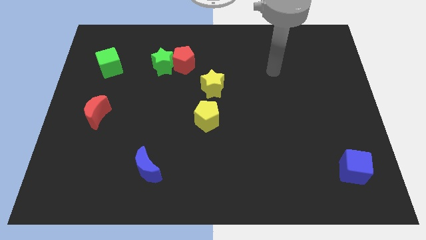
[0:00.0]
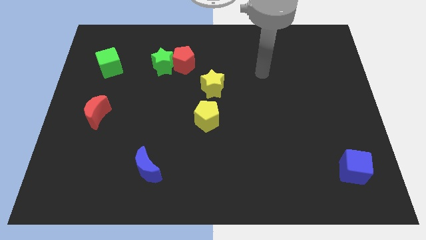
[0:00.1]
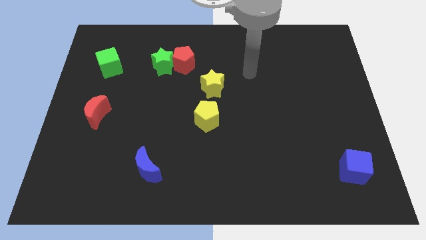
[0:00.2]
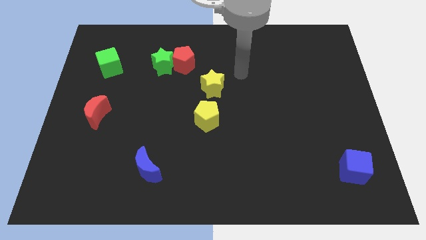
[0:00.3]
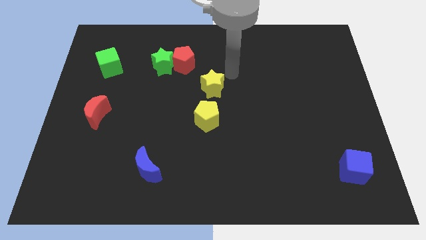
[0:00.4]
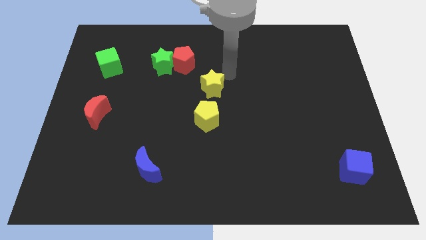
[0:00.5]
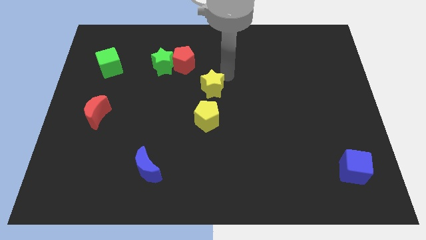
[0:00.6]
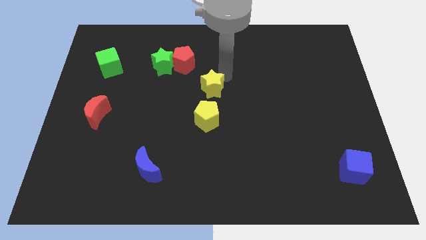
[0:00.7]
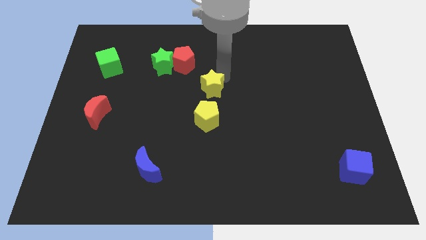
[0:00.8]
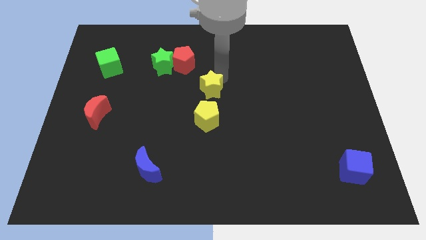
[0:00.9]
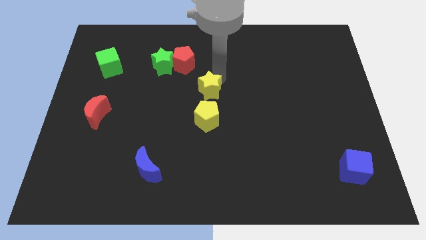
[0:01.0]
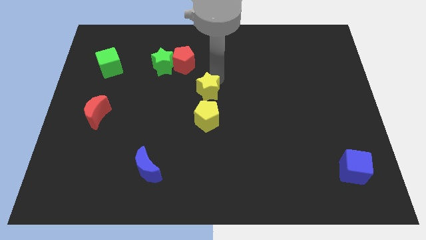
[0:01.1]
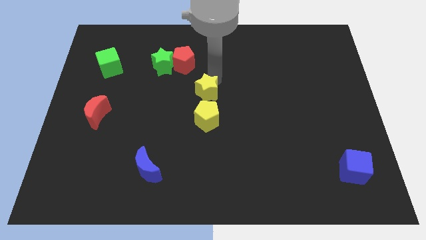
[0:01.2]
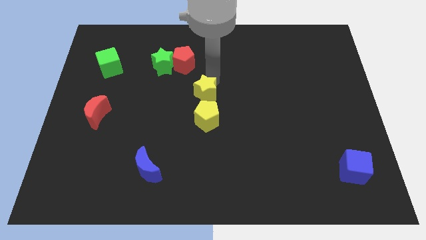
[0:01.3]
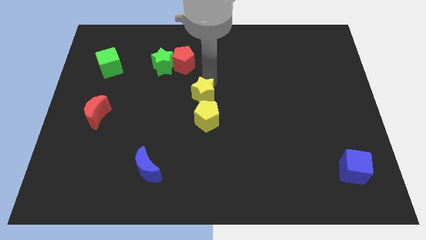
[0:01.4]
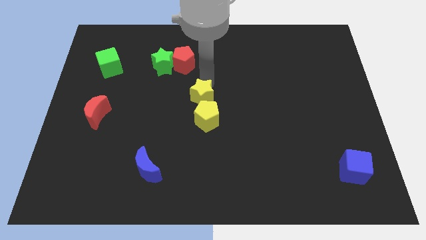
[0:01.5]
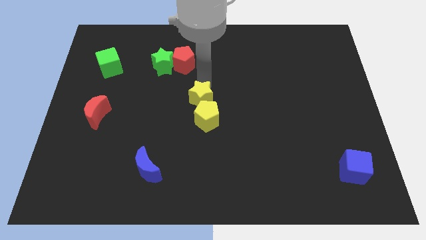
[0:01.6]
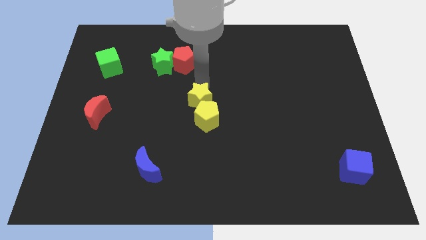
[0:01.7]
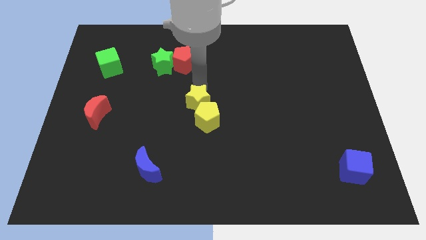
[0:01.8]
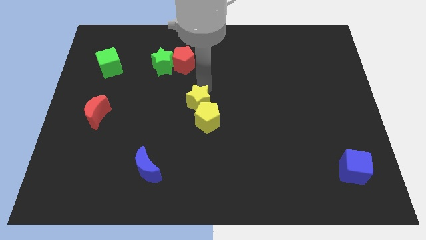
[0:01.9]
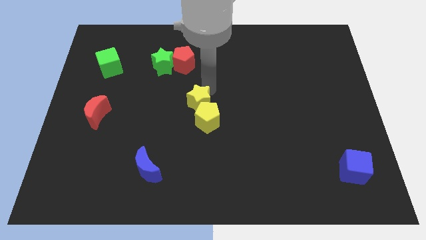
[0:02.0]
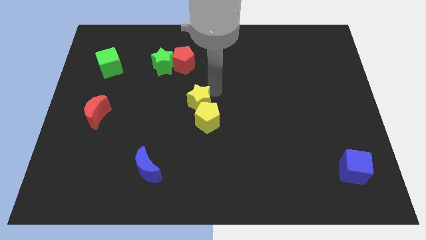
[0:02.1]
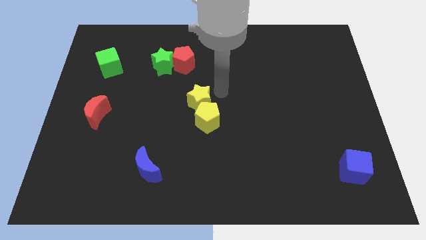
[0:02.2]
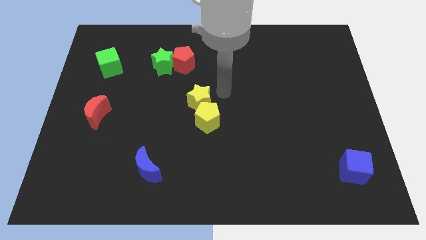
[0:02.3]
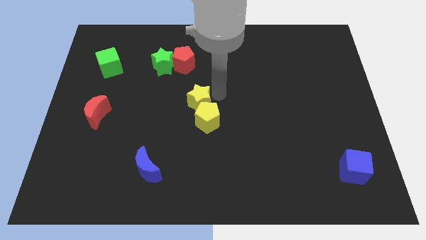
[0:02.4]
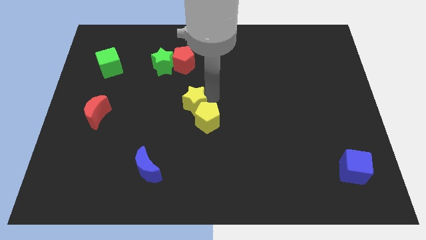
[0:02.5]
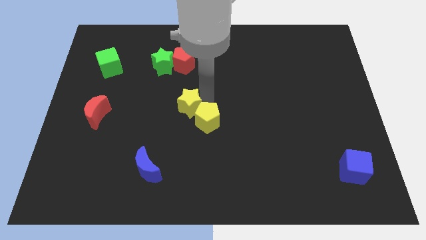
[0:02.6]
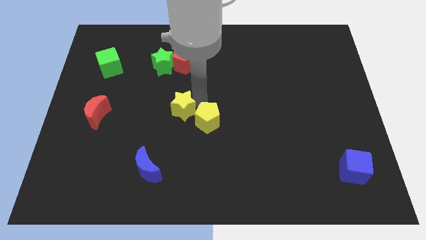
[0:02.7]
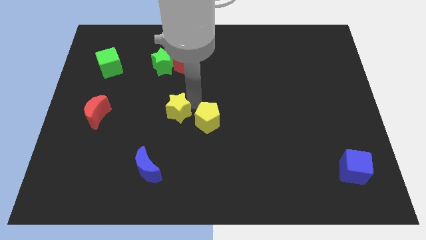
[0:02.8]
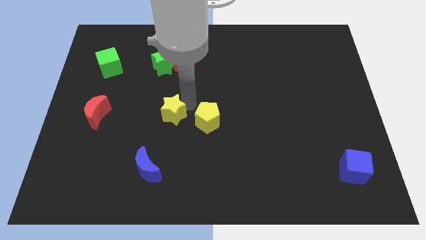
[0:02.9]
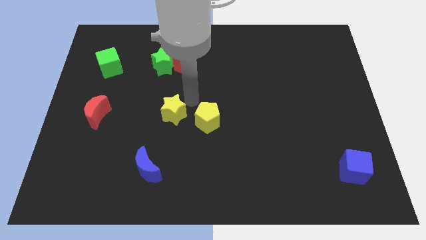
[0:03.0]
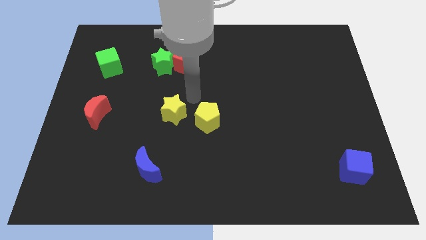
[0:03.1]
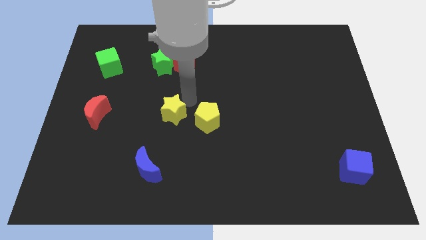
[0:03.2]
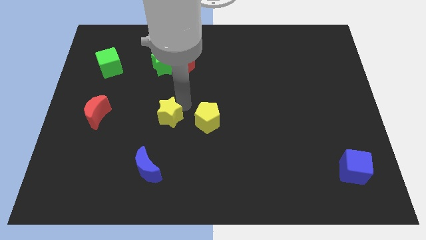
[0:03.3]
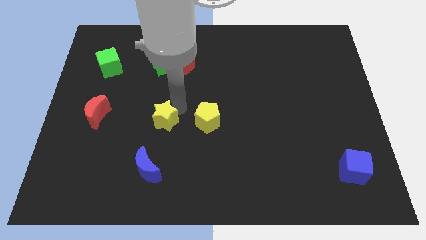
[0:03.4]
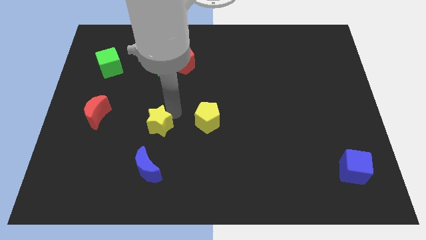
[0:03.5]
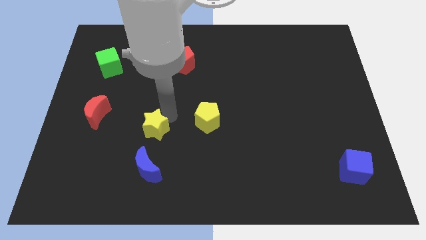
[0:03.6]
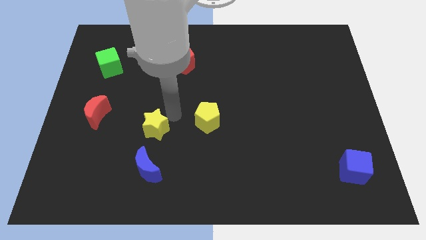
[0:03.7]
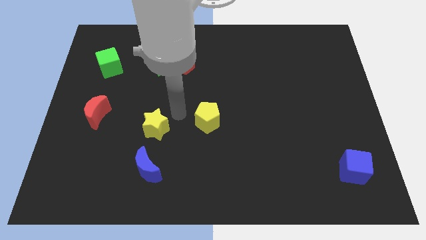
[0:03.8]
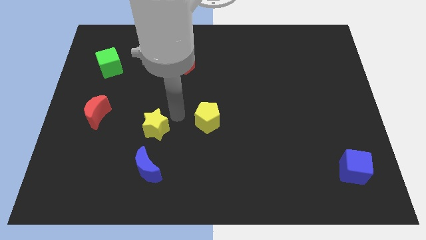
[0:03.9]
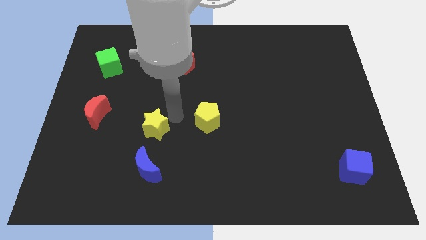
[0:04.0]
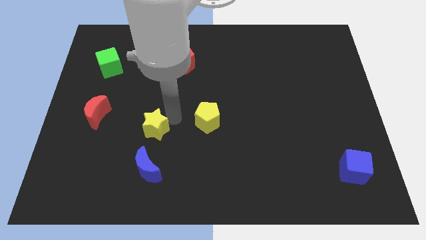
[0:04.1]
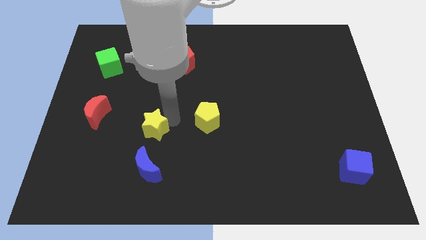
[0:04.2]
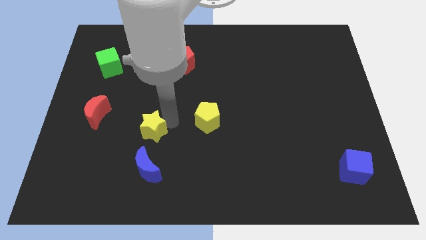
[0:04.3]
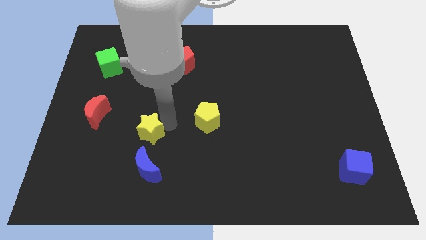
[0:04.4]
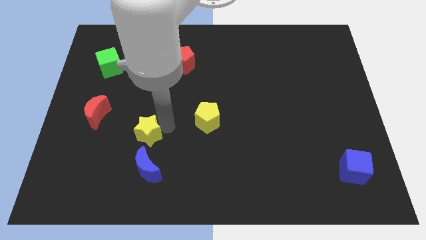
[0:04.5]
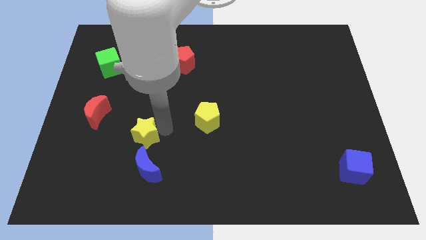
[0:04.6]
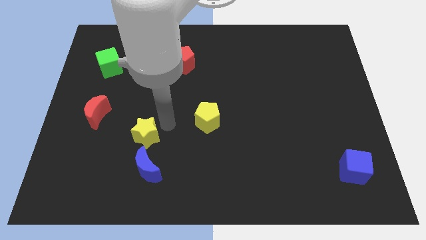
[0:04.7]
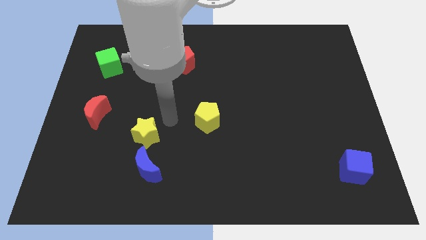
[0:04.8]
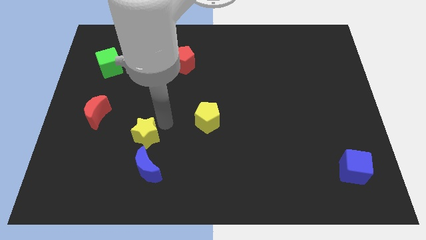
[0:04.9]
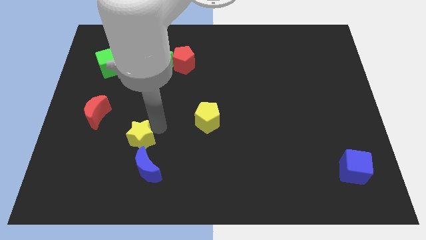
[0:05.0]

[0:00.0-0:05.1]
move the yellow star to the top left of the blue moon

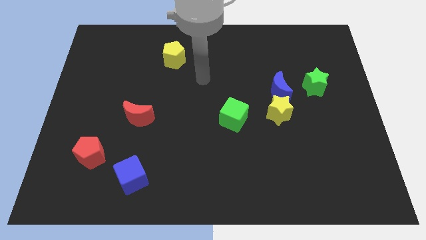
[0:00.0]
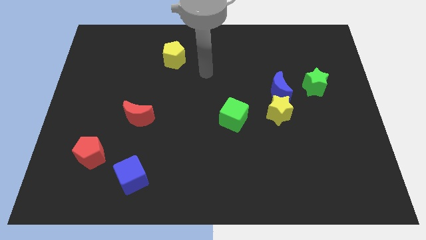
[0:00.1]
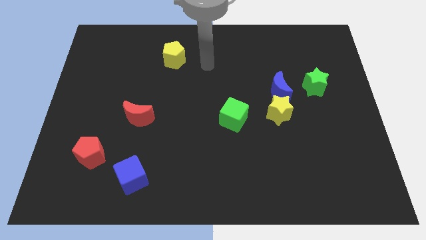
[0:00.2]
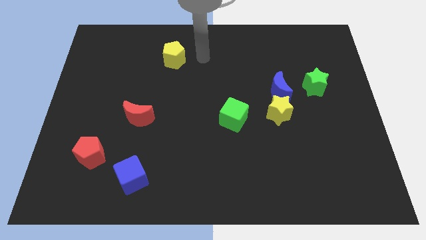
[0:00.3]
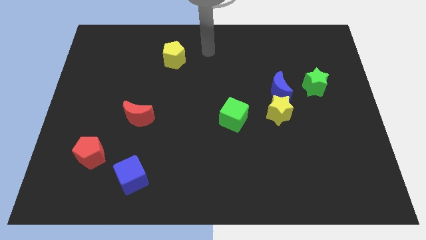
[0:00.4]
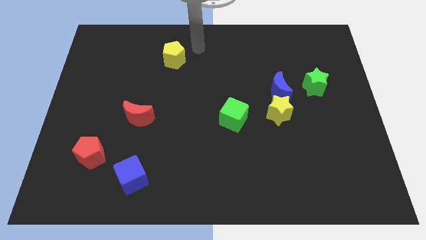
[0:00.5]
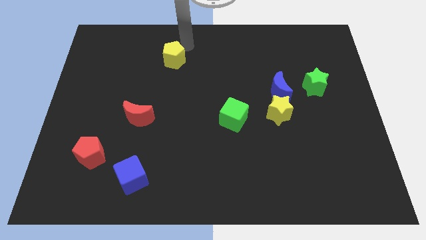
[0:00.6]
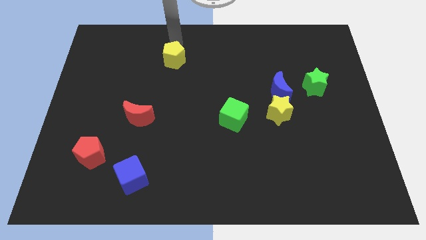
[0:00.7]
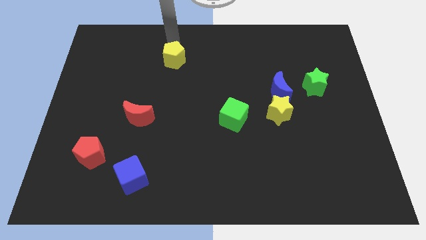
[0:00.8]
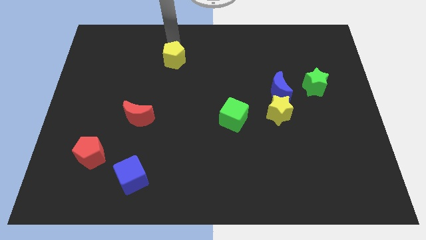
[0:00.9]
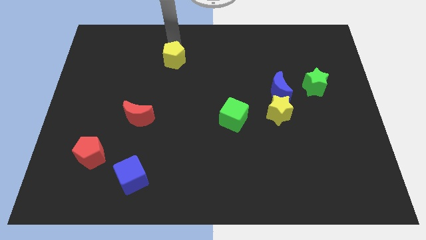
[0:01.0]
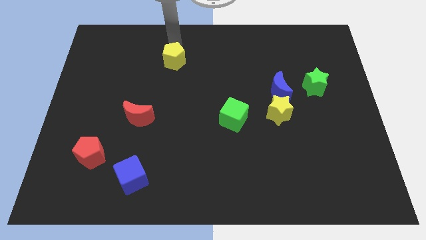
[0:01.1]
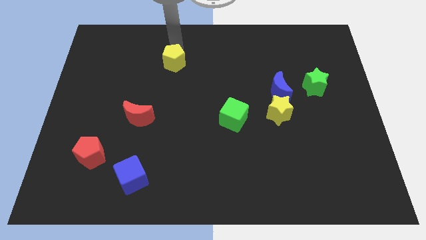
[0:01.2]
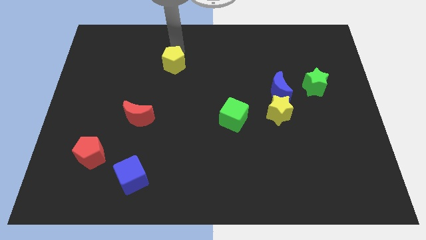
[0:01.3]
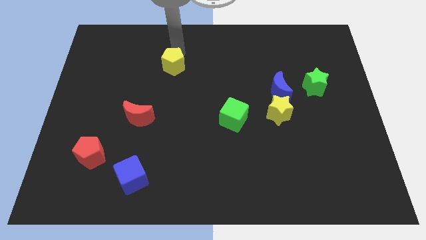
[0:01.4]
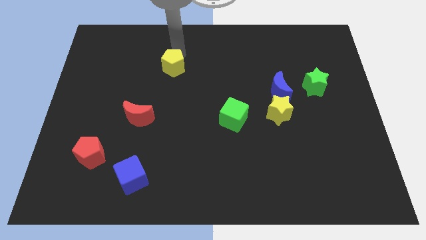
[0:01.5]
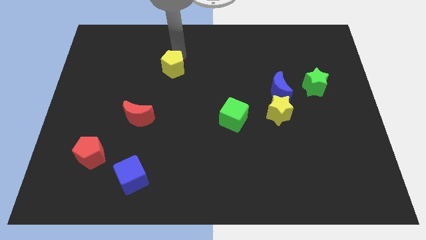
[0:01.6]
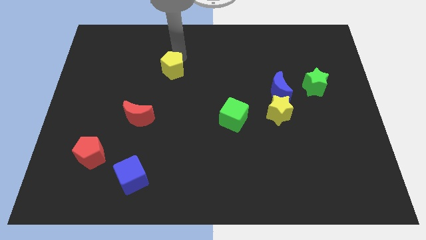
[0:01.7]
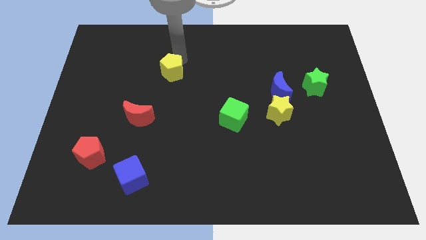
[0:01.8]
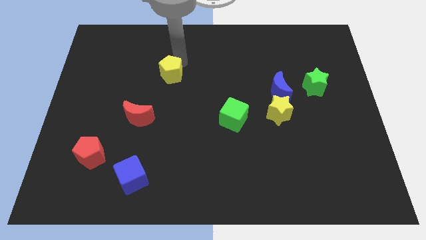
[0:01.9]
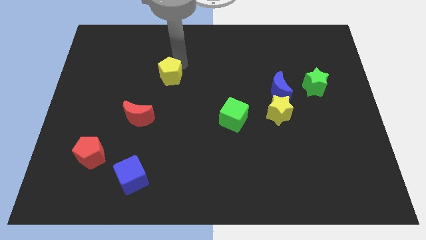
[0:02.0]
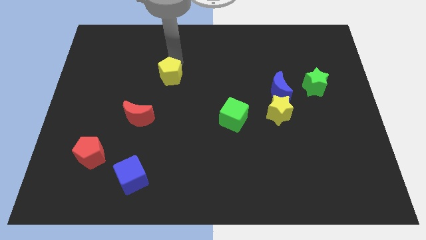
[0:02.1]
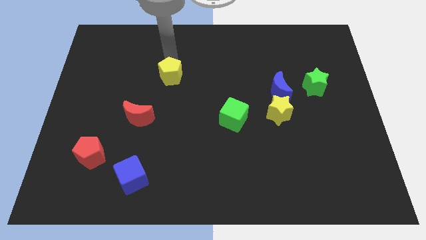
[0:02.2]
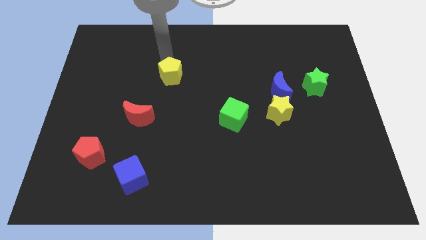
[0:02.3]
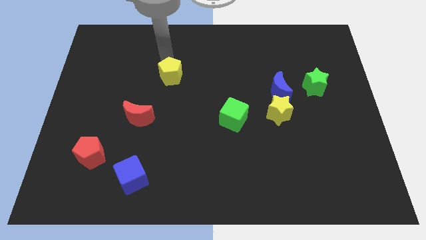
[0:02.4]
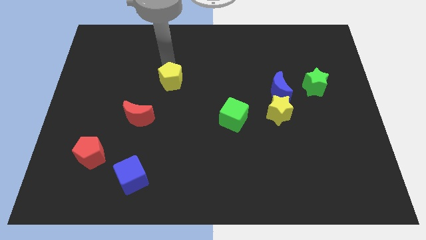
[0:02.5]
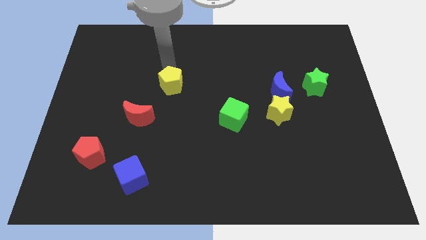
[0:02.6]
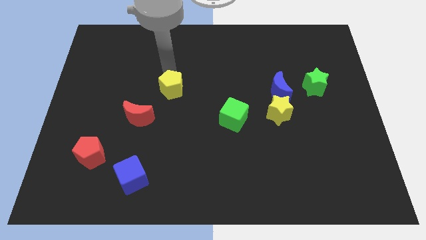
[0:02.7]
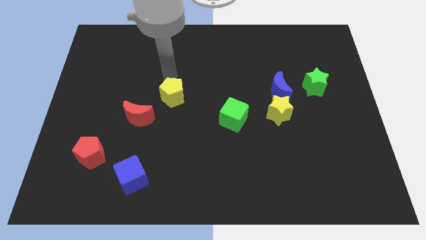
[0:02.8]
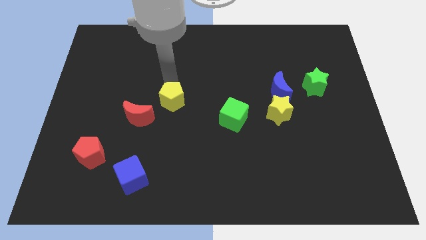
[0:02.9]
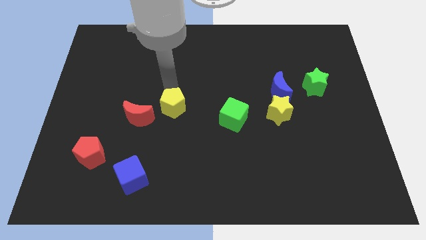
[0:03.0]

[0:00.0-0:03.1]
slide the yellow pentagon just right of the red moon
